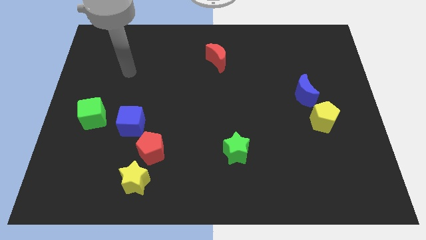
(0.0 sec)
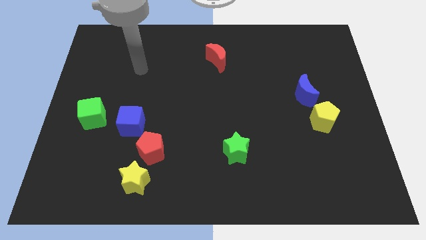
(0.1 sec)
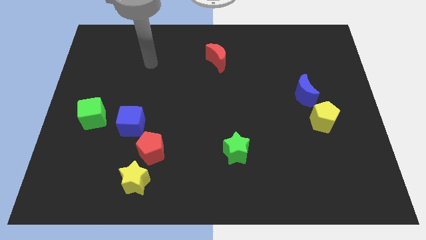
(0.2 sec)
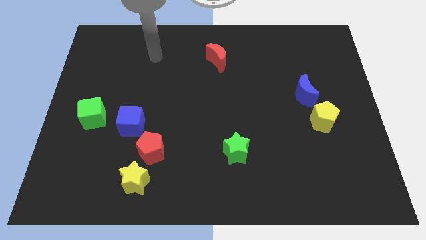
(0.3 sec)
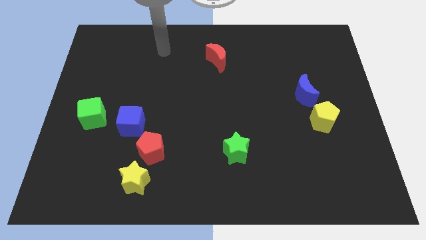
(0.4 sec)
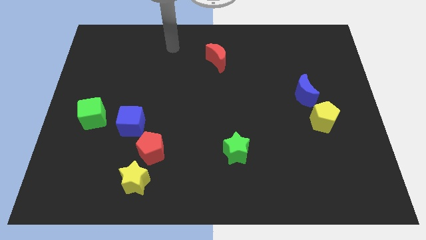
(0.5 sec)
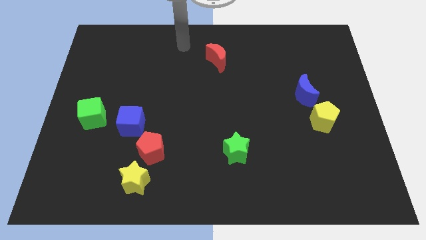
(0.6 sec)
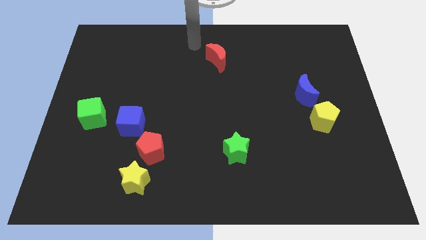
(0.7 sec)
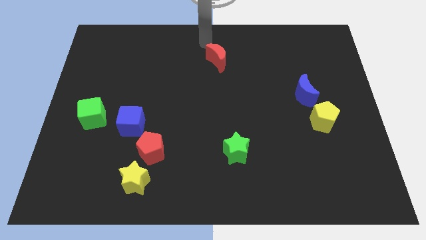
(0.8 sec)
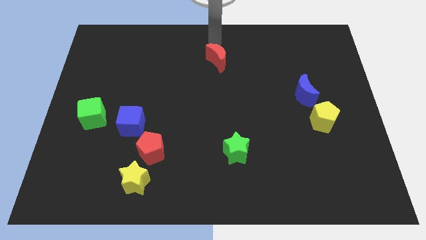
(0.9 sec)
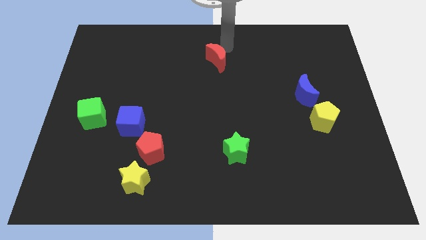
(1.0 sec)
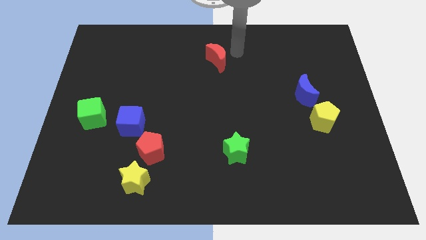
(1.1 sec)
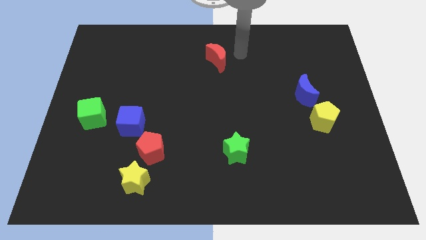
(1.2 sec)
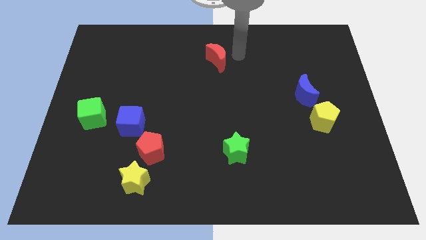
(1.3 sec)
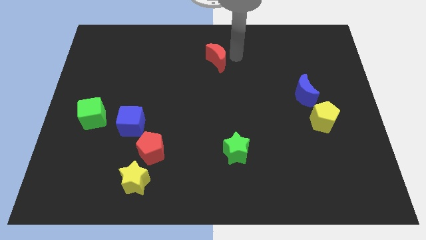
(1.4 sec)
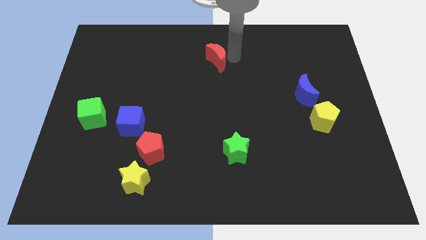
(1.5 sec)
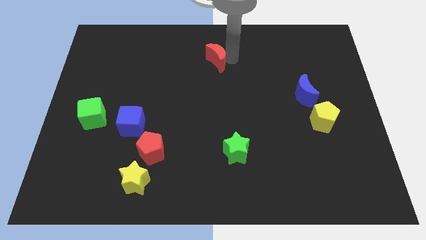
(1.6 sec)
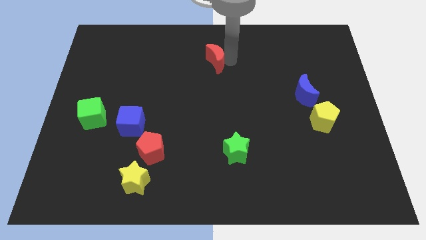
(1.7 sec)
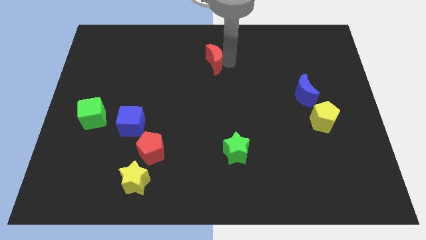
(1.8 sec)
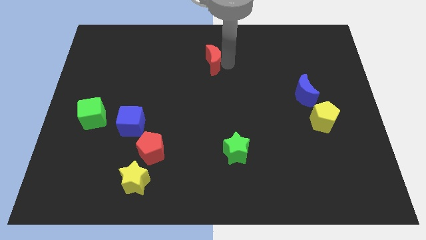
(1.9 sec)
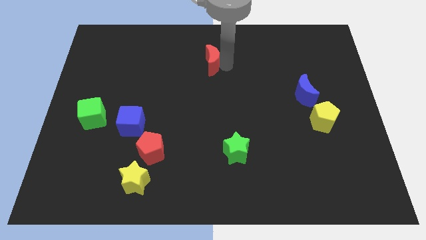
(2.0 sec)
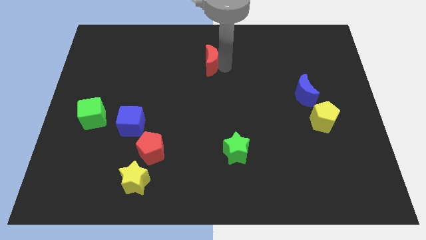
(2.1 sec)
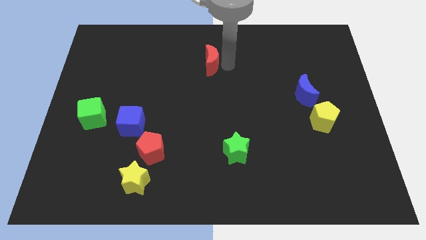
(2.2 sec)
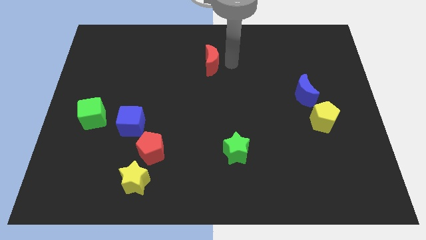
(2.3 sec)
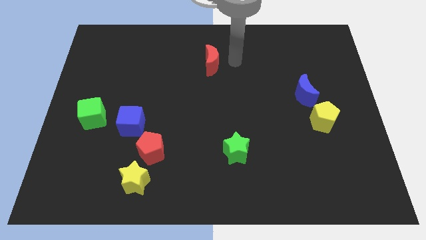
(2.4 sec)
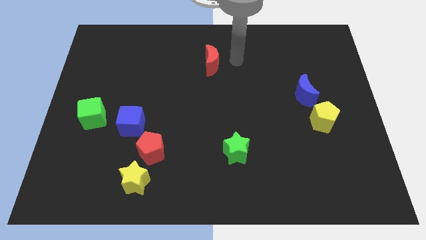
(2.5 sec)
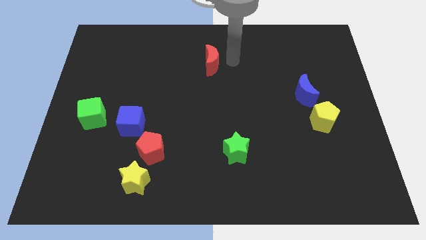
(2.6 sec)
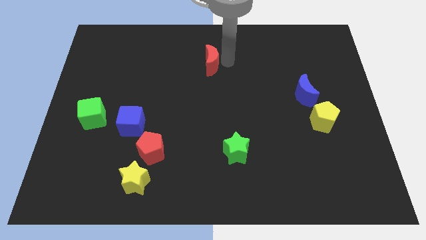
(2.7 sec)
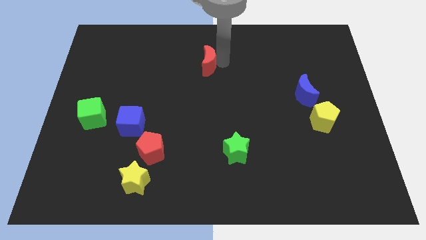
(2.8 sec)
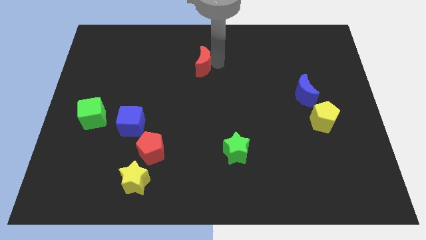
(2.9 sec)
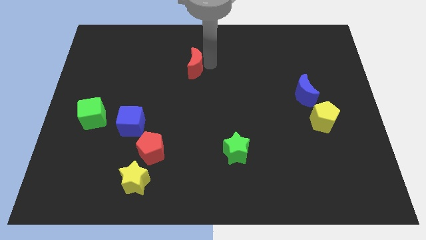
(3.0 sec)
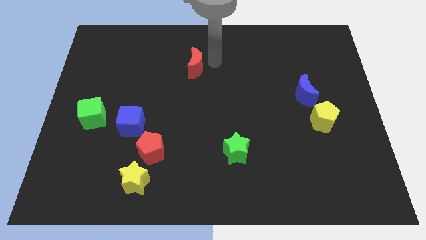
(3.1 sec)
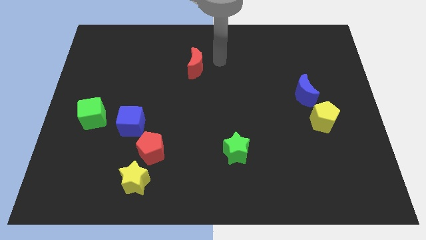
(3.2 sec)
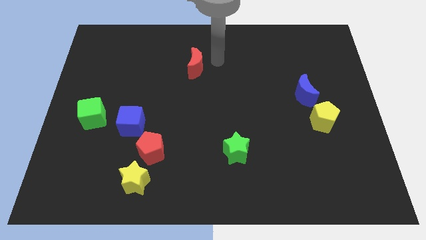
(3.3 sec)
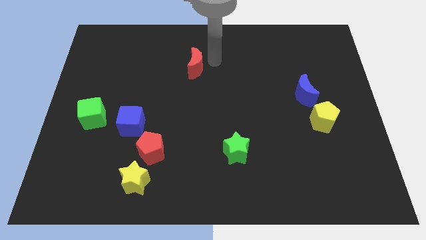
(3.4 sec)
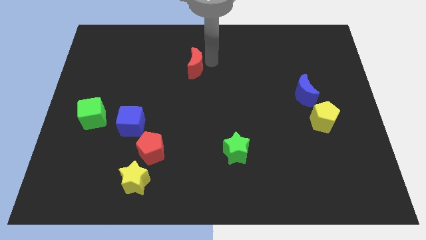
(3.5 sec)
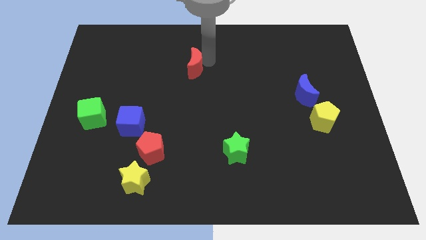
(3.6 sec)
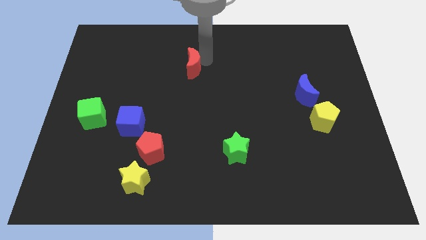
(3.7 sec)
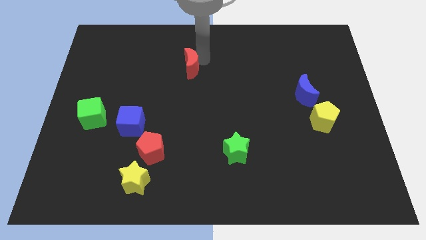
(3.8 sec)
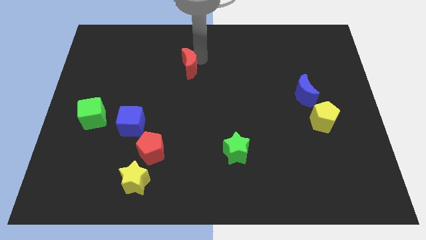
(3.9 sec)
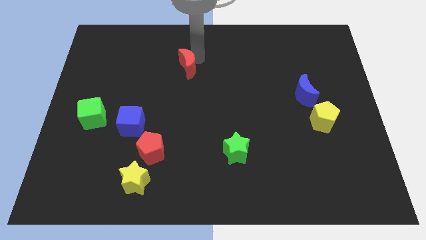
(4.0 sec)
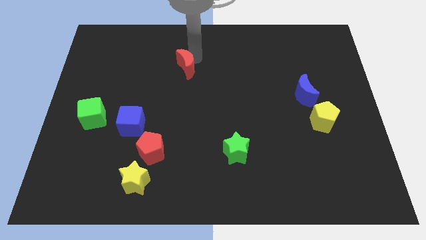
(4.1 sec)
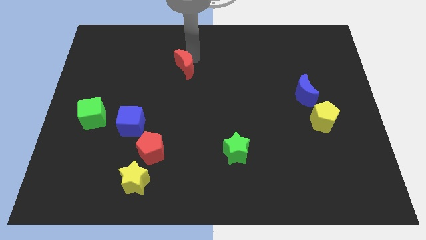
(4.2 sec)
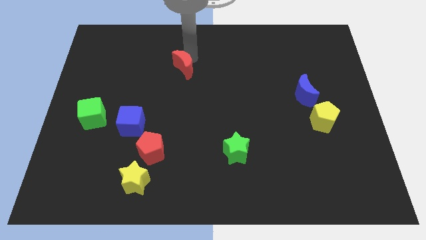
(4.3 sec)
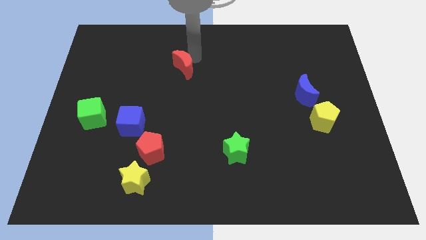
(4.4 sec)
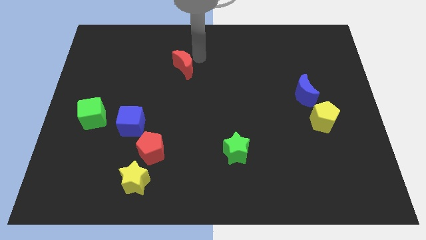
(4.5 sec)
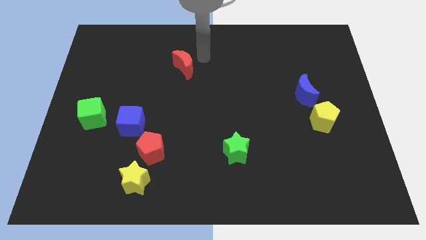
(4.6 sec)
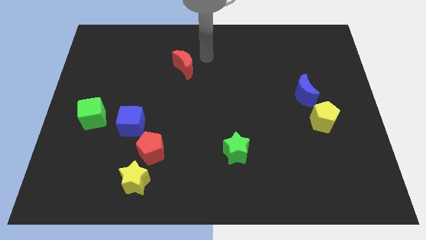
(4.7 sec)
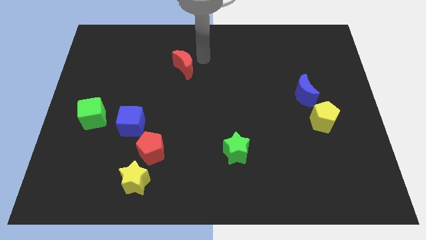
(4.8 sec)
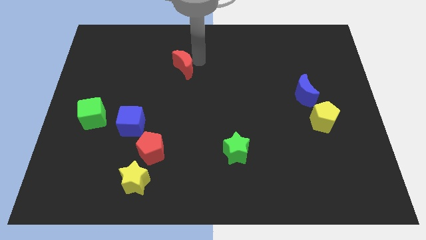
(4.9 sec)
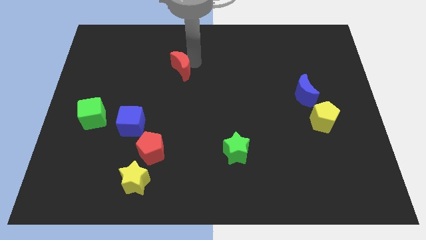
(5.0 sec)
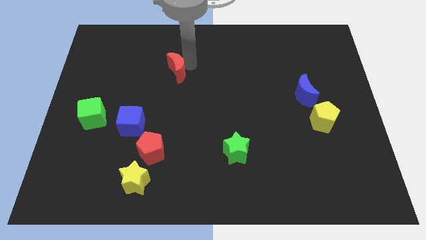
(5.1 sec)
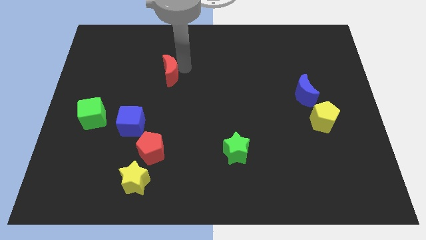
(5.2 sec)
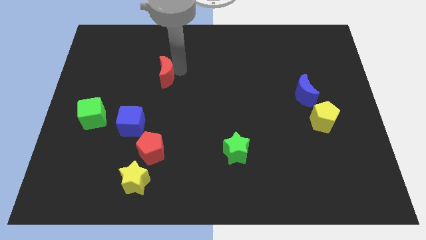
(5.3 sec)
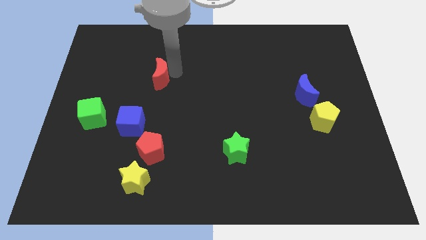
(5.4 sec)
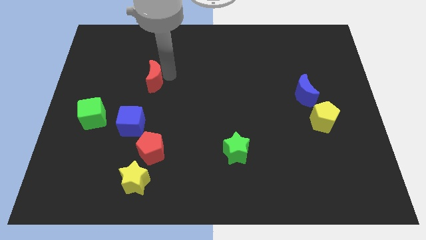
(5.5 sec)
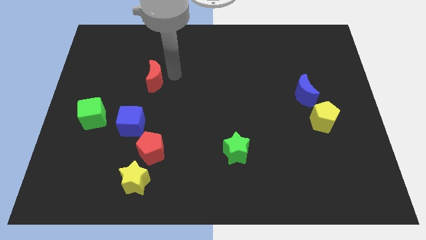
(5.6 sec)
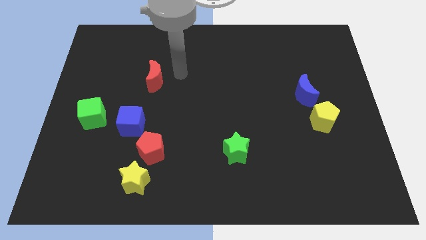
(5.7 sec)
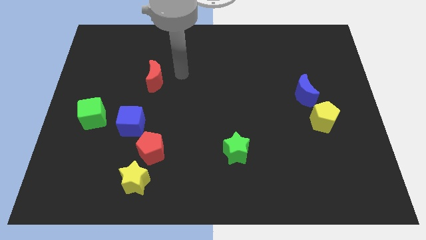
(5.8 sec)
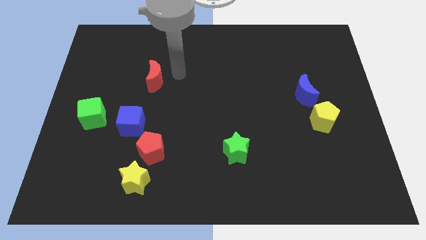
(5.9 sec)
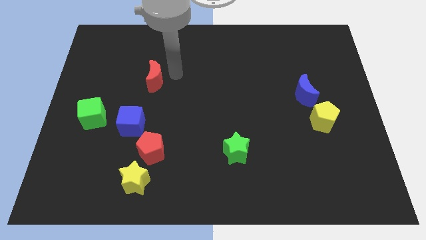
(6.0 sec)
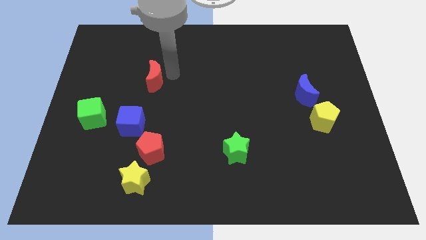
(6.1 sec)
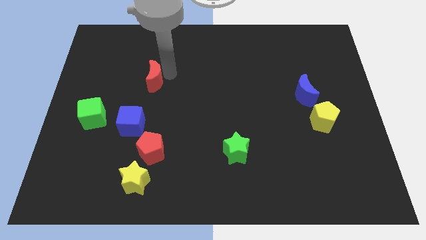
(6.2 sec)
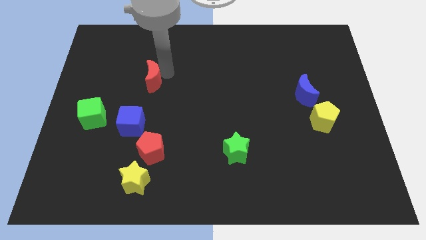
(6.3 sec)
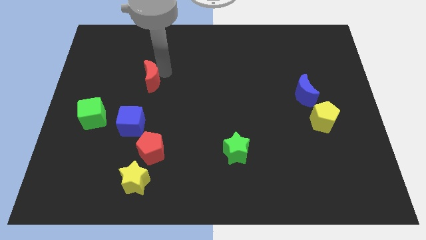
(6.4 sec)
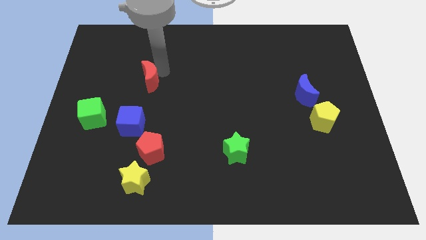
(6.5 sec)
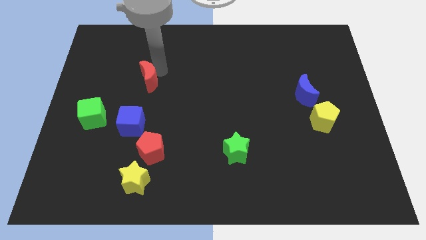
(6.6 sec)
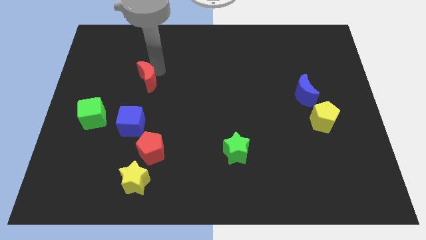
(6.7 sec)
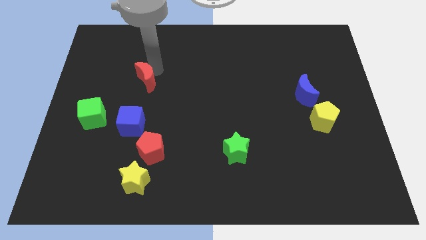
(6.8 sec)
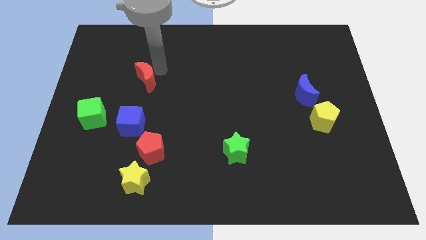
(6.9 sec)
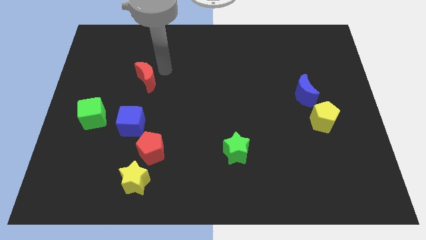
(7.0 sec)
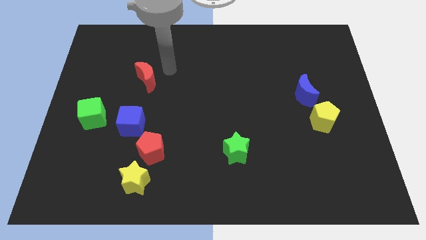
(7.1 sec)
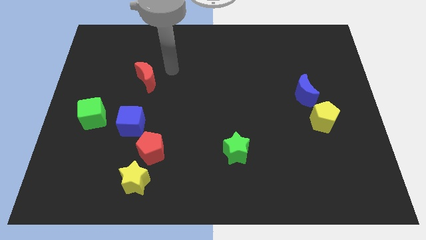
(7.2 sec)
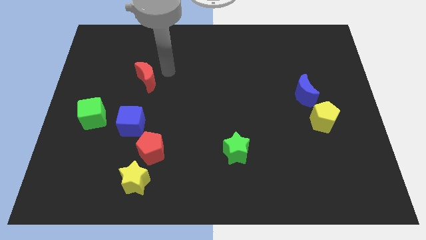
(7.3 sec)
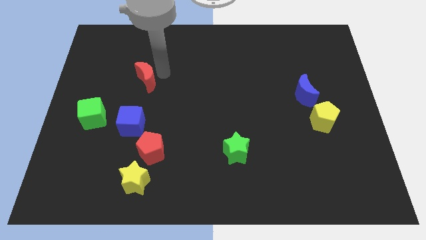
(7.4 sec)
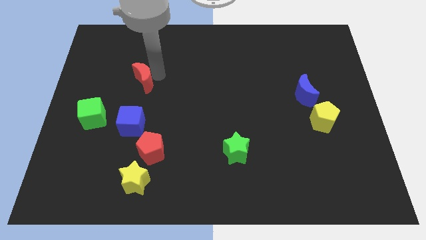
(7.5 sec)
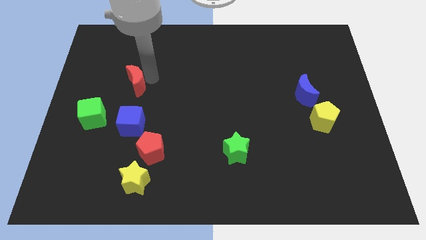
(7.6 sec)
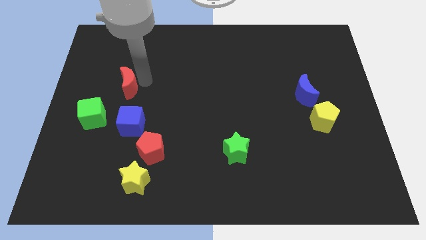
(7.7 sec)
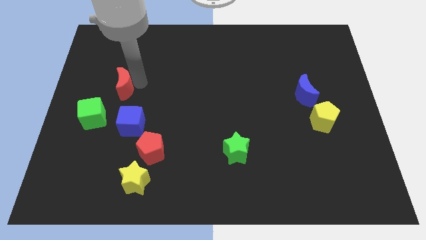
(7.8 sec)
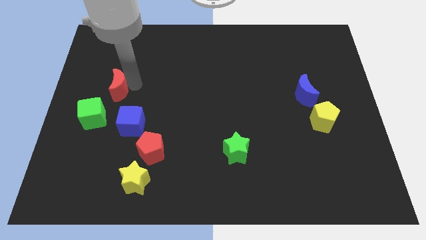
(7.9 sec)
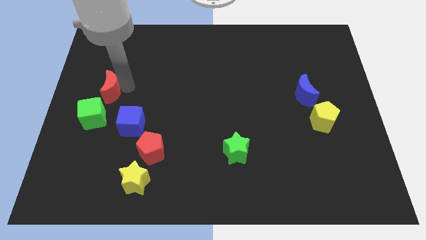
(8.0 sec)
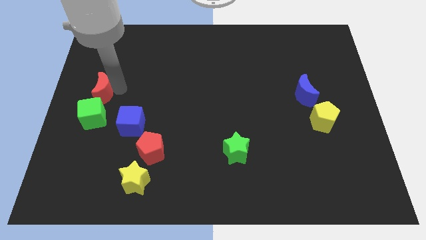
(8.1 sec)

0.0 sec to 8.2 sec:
put the red moon to the center left
